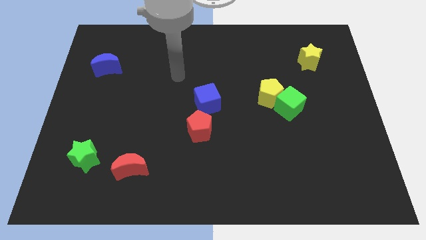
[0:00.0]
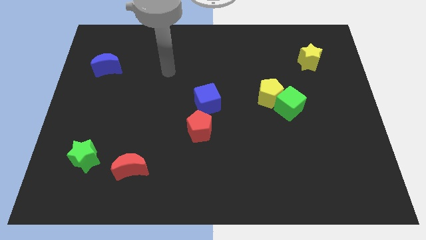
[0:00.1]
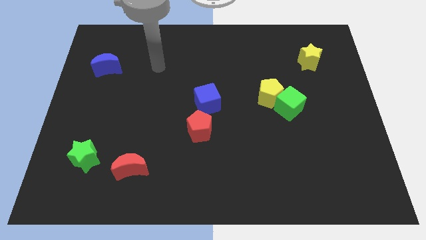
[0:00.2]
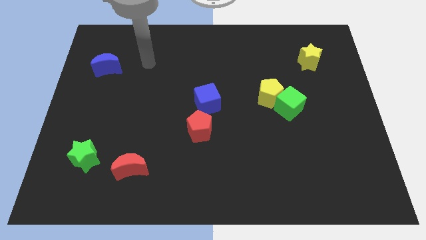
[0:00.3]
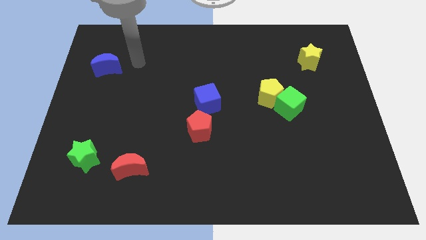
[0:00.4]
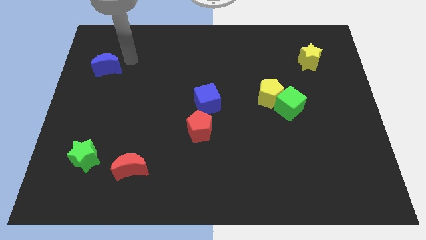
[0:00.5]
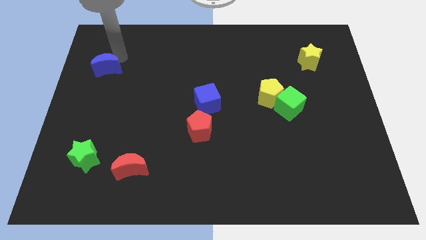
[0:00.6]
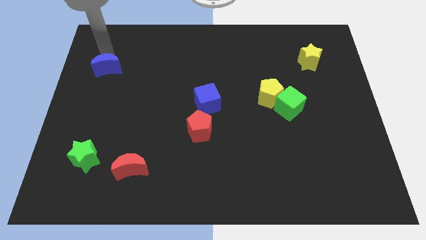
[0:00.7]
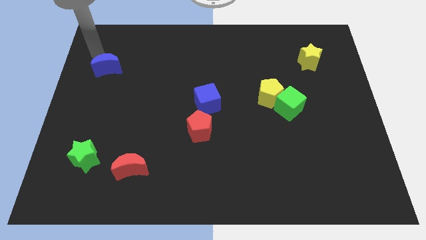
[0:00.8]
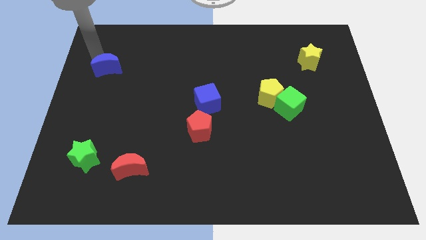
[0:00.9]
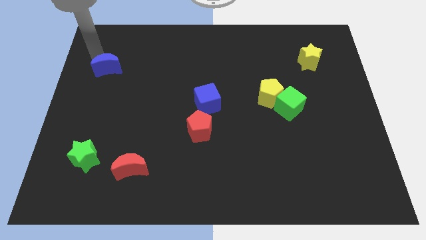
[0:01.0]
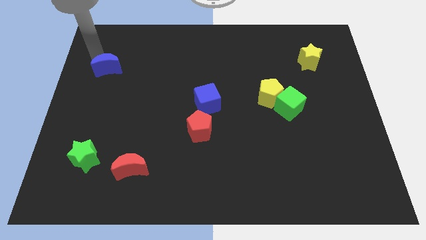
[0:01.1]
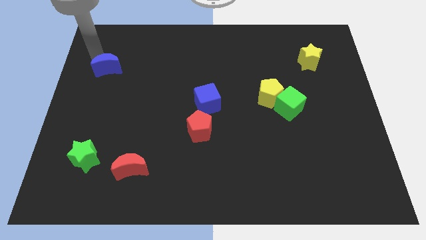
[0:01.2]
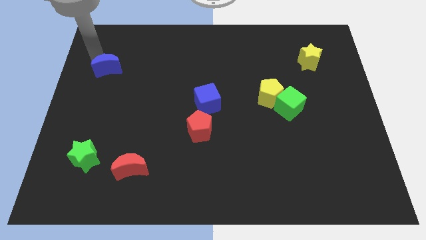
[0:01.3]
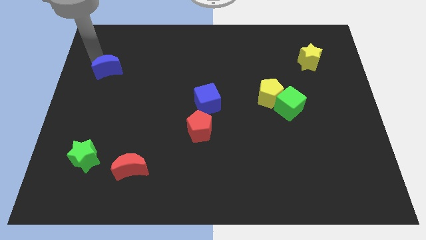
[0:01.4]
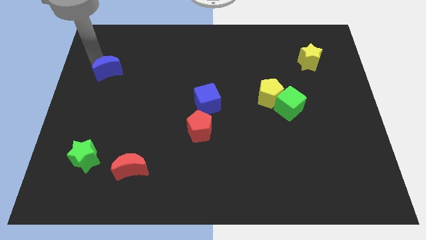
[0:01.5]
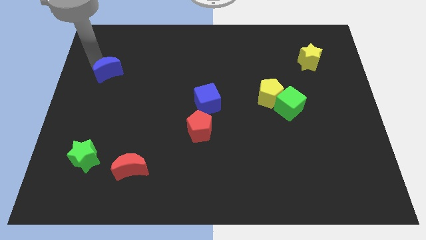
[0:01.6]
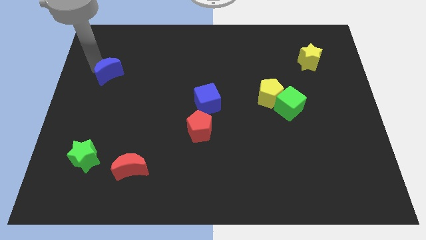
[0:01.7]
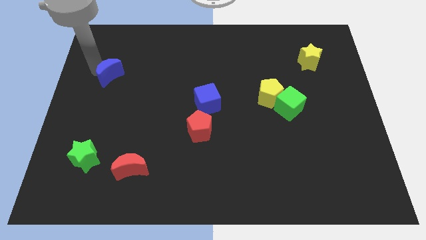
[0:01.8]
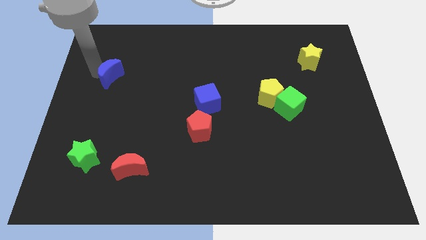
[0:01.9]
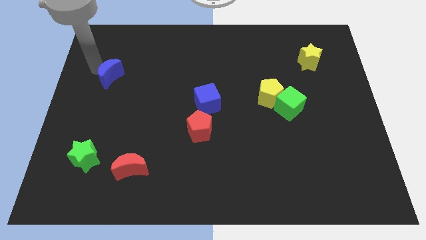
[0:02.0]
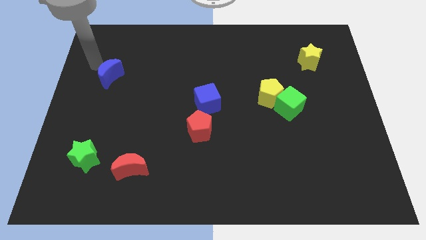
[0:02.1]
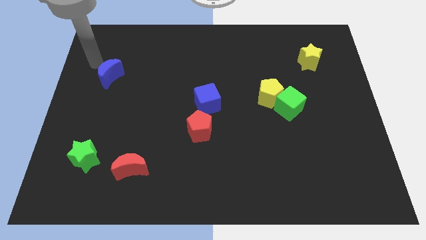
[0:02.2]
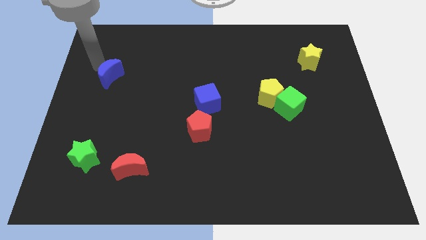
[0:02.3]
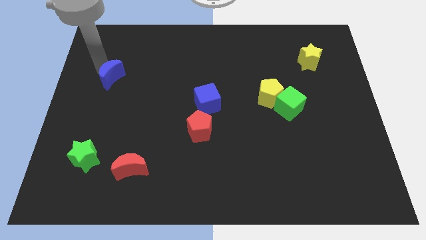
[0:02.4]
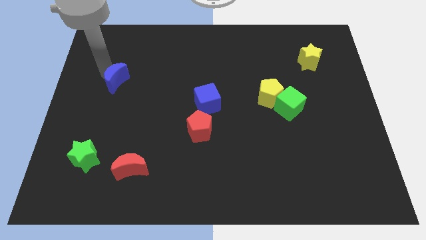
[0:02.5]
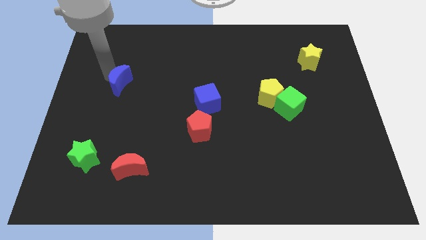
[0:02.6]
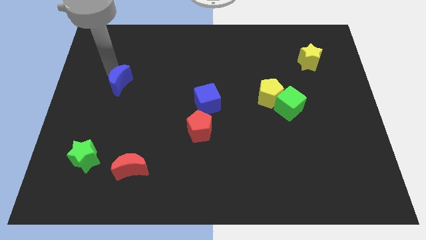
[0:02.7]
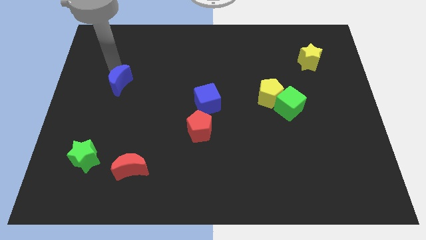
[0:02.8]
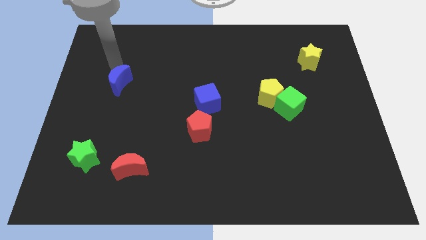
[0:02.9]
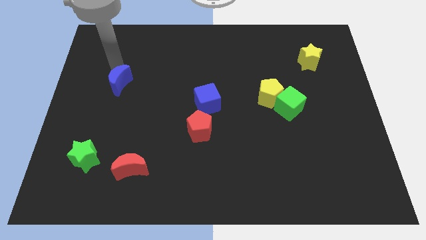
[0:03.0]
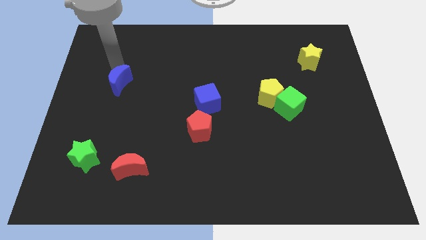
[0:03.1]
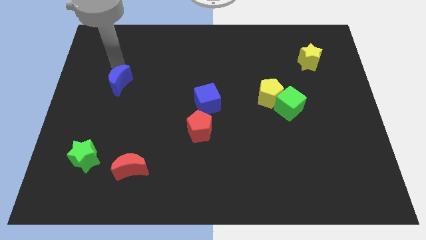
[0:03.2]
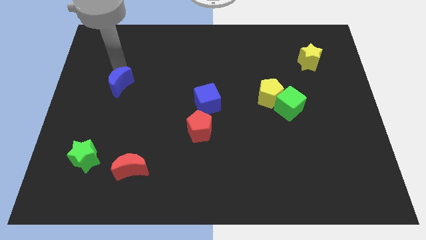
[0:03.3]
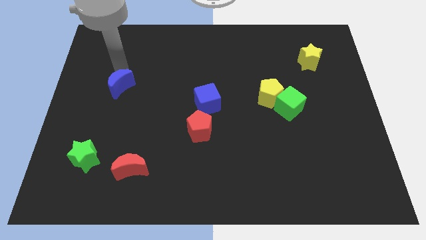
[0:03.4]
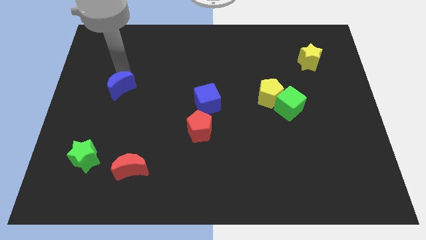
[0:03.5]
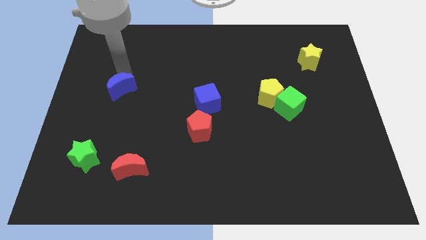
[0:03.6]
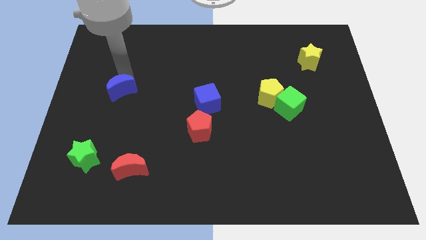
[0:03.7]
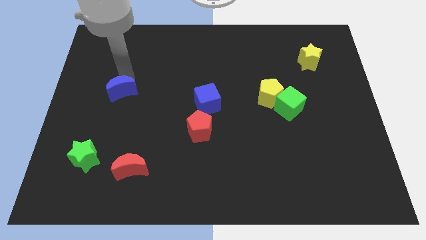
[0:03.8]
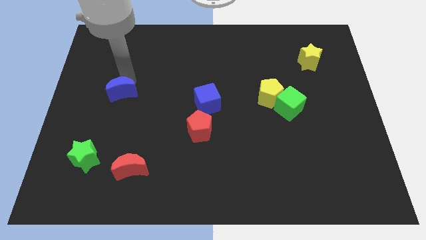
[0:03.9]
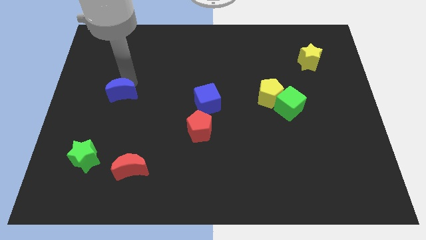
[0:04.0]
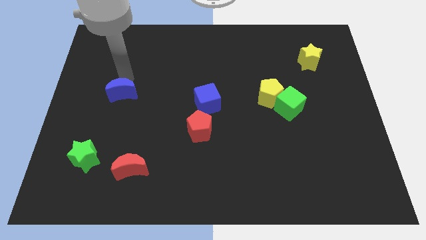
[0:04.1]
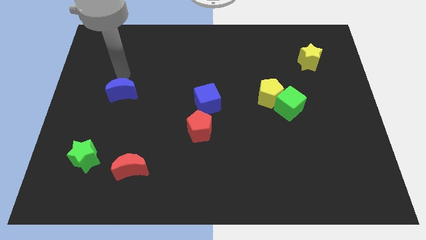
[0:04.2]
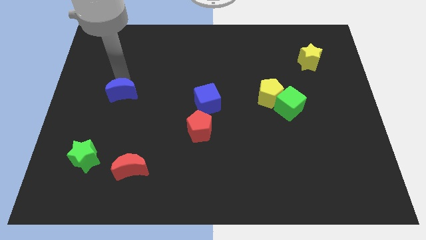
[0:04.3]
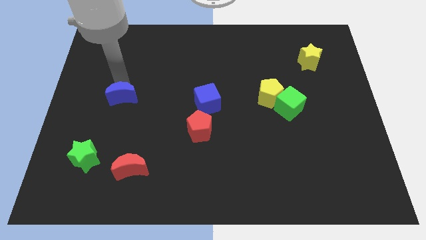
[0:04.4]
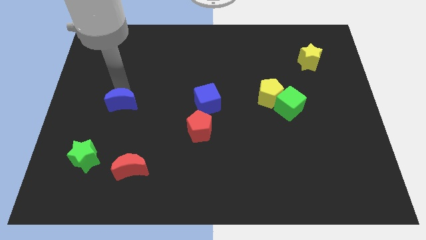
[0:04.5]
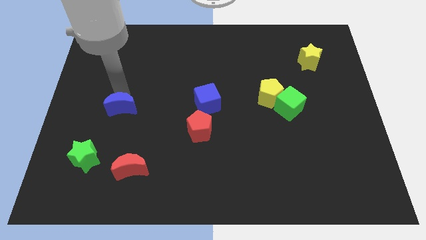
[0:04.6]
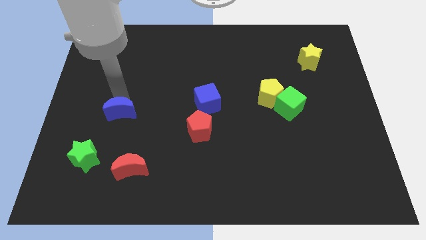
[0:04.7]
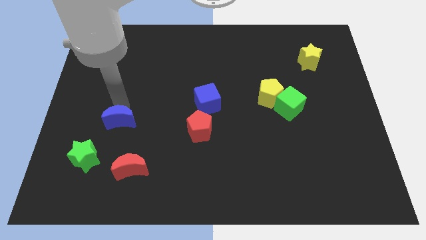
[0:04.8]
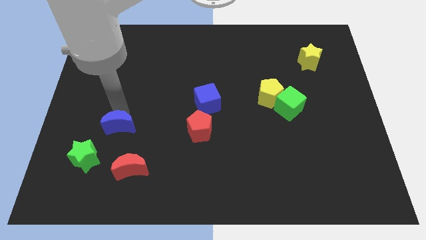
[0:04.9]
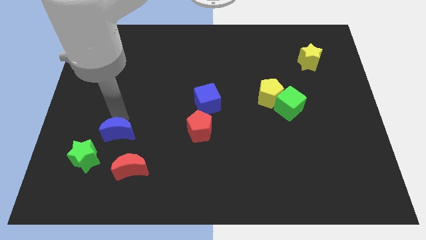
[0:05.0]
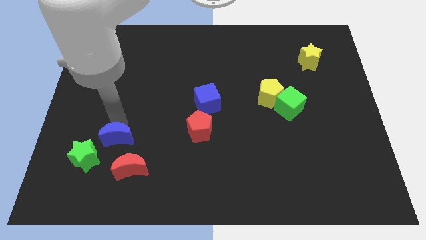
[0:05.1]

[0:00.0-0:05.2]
slide the blue moon downwards

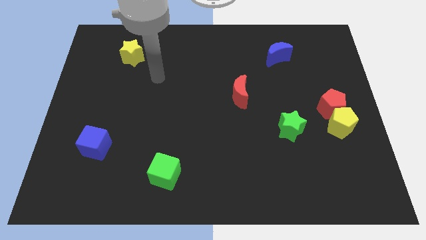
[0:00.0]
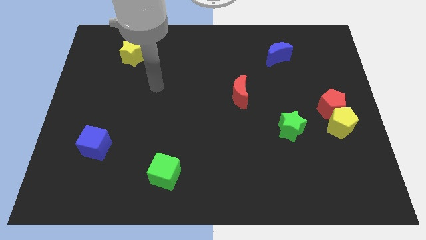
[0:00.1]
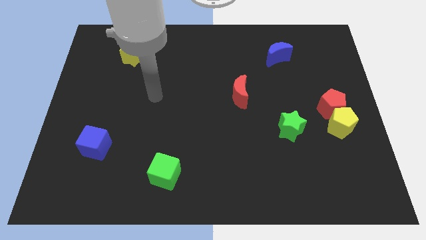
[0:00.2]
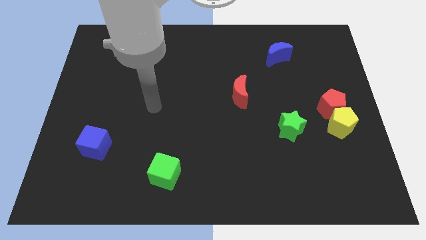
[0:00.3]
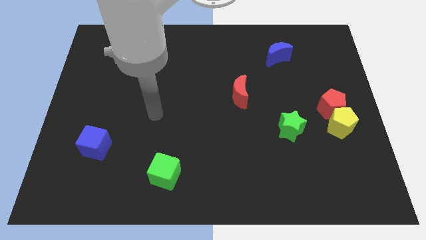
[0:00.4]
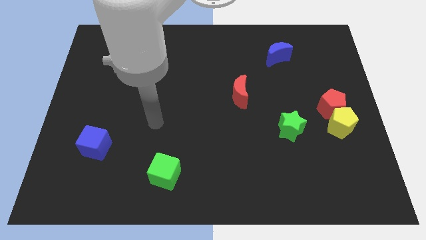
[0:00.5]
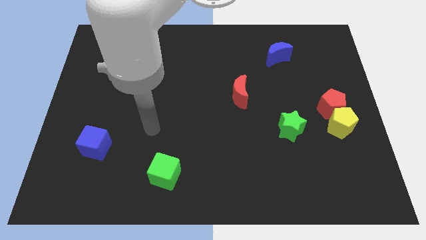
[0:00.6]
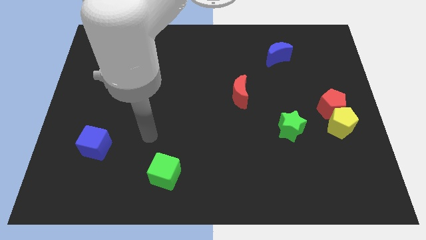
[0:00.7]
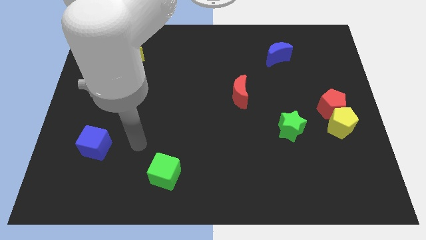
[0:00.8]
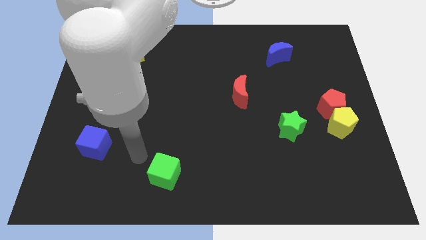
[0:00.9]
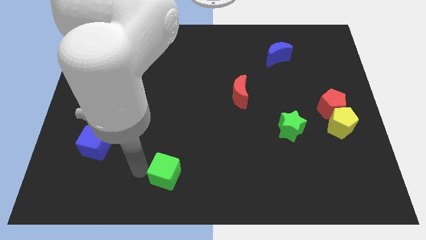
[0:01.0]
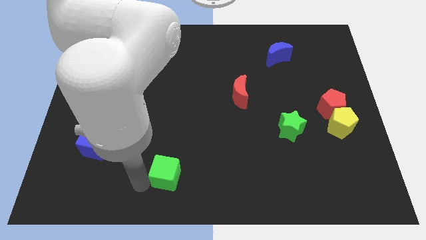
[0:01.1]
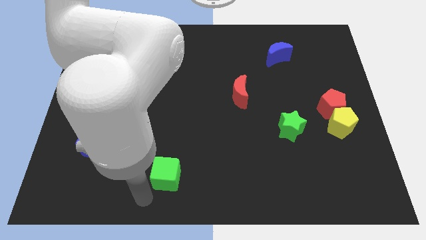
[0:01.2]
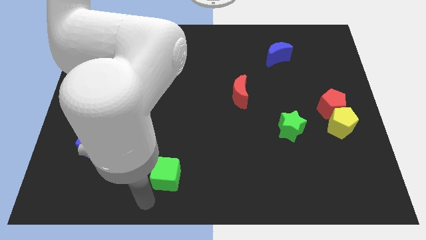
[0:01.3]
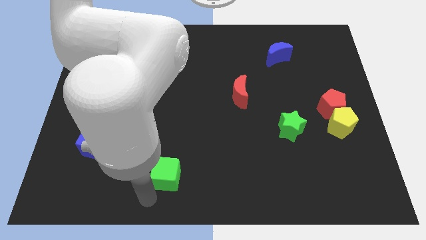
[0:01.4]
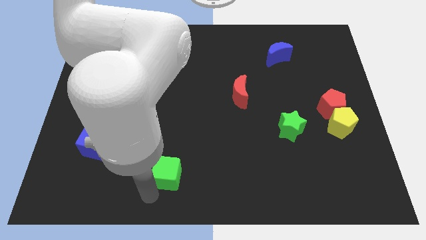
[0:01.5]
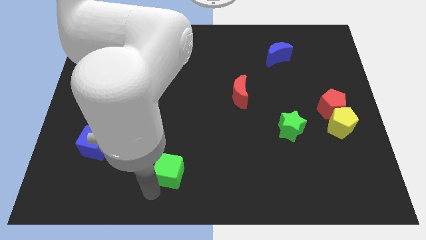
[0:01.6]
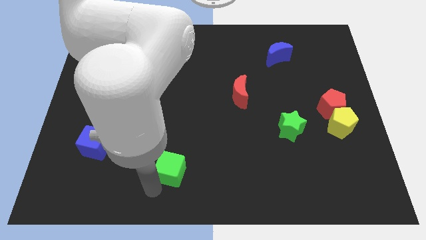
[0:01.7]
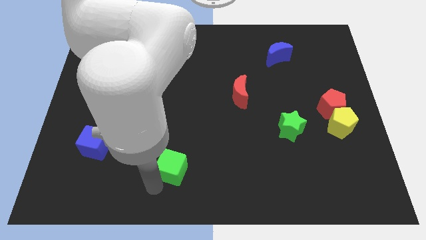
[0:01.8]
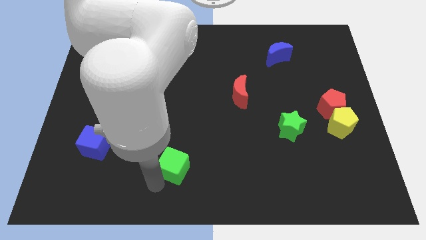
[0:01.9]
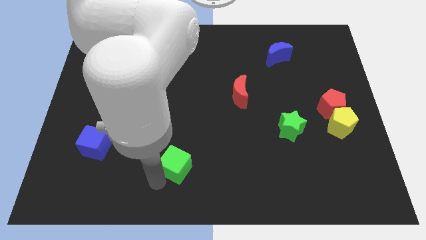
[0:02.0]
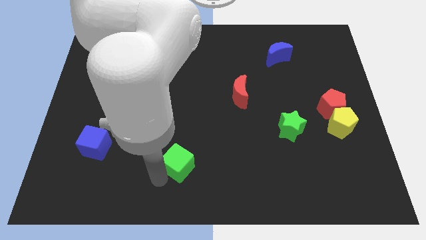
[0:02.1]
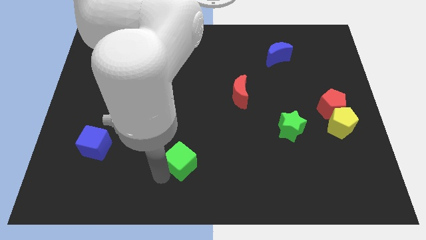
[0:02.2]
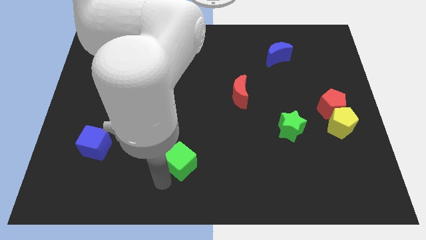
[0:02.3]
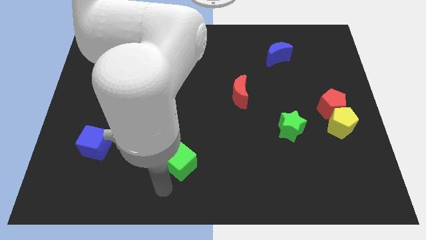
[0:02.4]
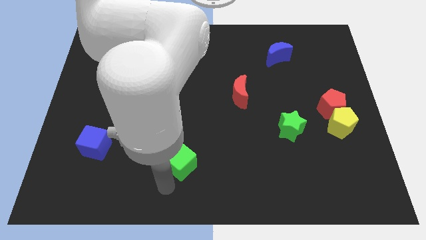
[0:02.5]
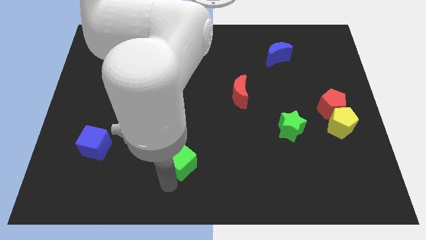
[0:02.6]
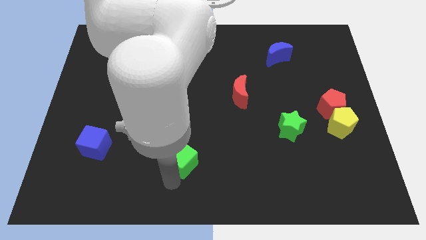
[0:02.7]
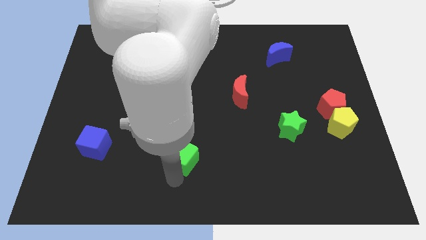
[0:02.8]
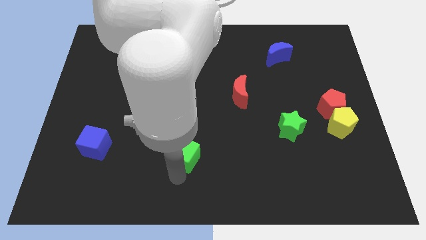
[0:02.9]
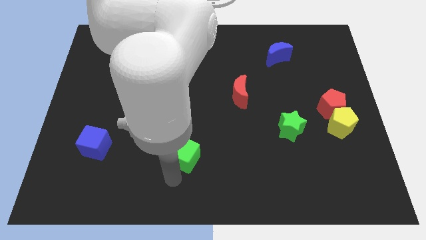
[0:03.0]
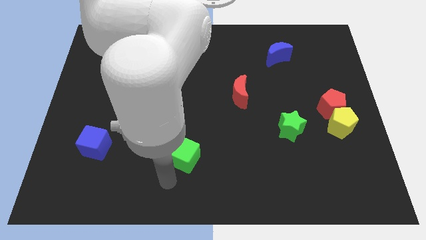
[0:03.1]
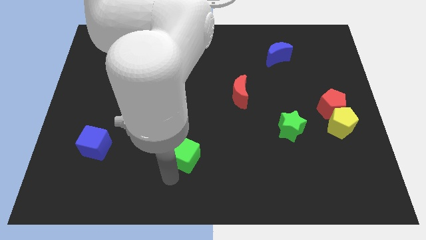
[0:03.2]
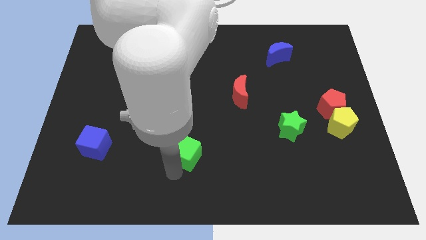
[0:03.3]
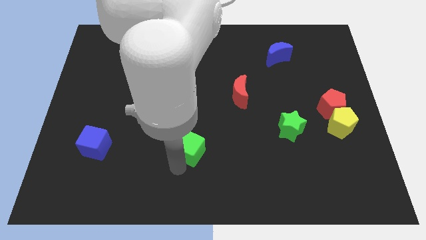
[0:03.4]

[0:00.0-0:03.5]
slide the green cube a little bit upwards and then to the right
